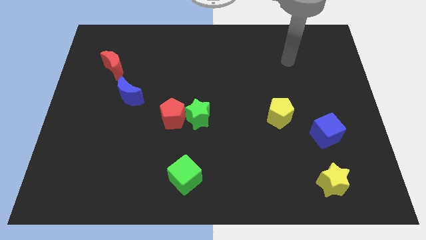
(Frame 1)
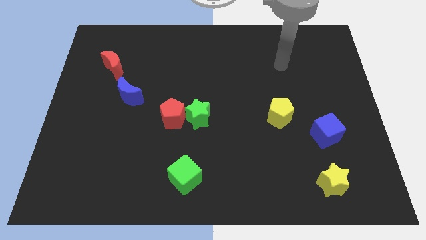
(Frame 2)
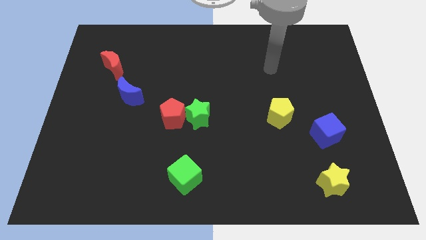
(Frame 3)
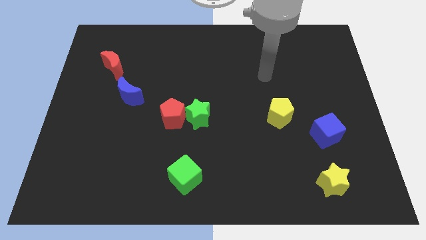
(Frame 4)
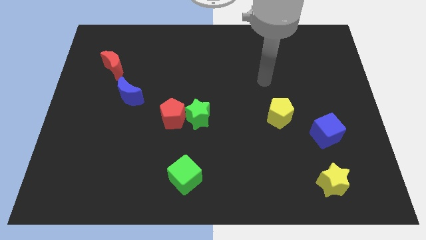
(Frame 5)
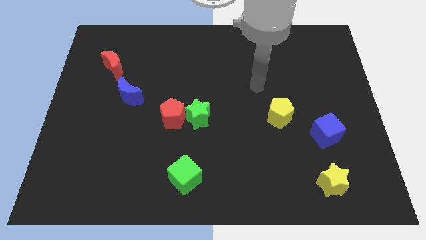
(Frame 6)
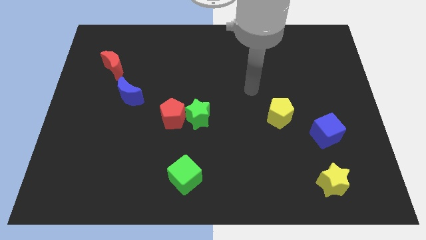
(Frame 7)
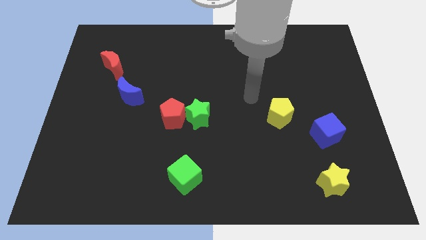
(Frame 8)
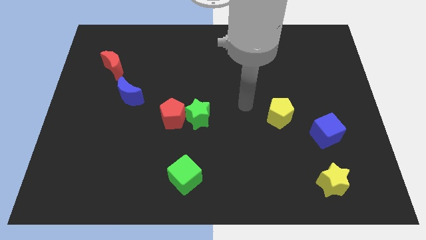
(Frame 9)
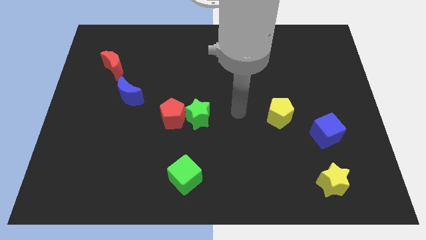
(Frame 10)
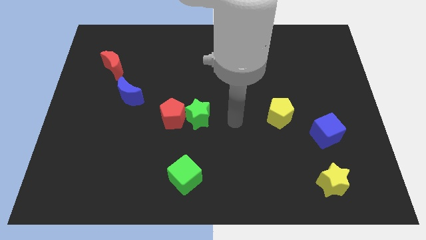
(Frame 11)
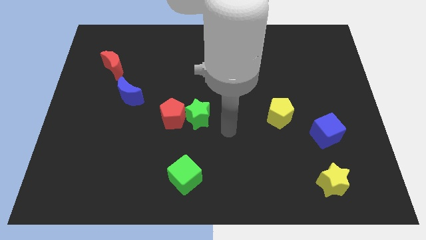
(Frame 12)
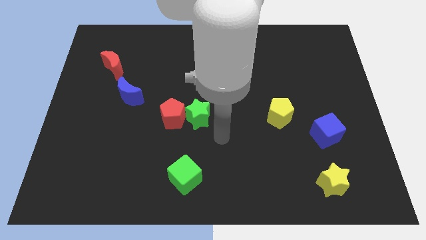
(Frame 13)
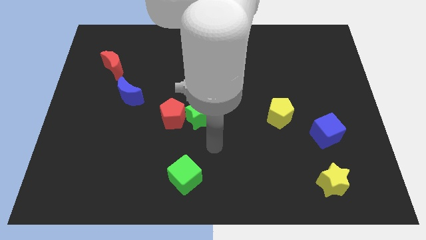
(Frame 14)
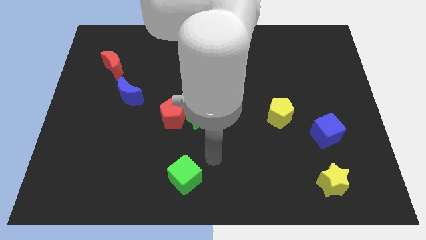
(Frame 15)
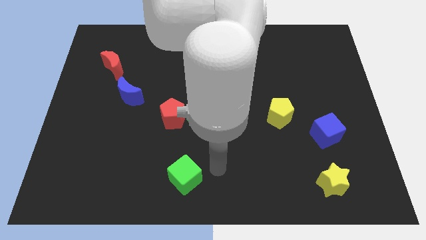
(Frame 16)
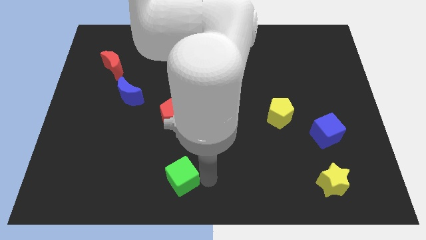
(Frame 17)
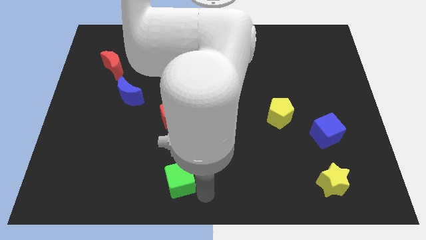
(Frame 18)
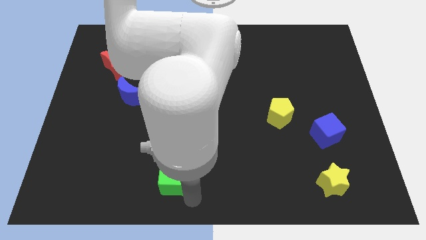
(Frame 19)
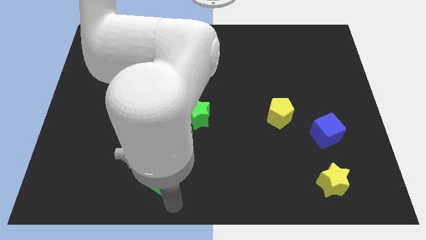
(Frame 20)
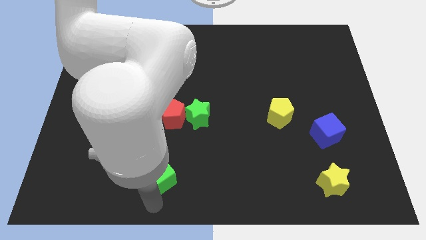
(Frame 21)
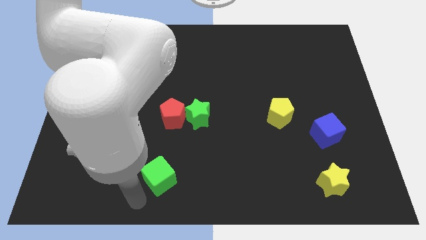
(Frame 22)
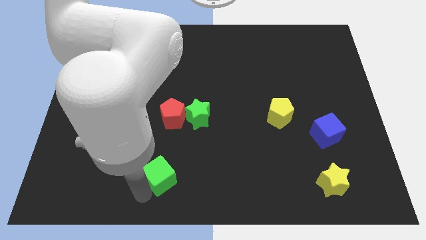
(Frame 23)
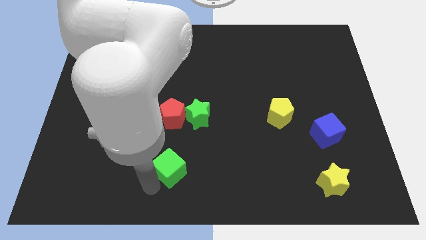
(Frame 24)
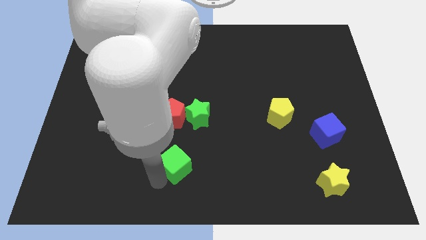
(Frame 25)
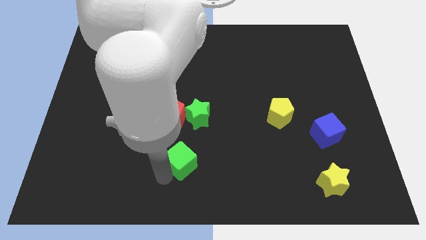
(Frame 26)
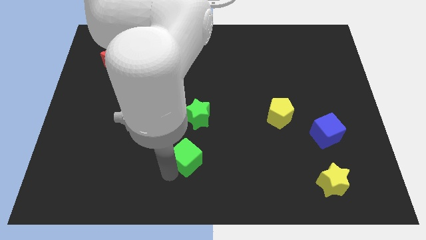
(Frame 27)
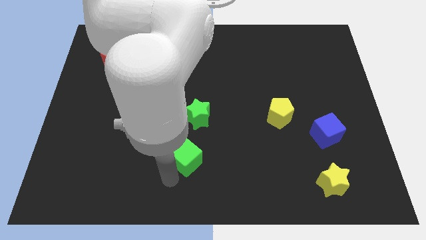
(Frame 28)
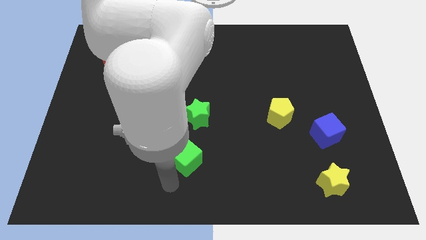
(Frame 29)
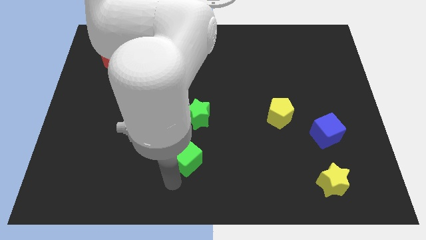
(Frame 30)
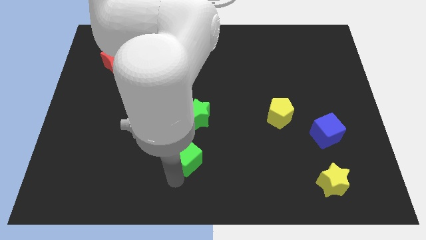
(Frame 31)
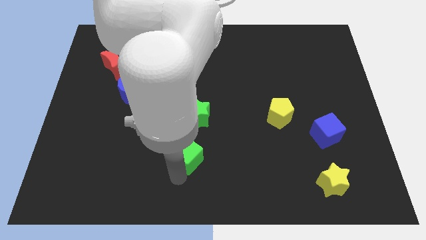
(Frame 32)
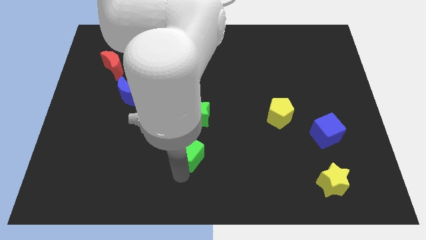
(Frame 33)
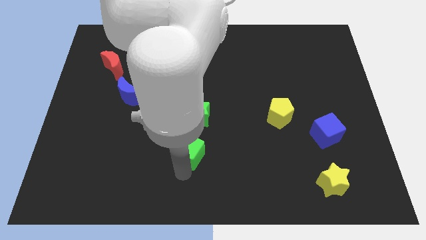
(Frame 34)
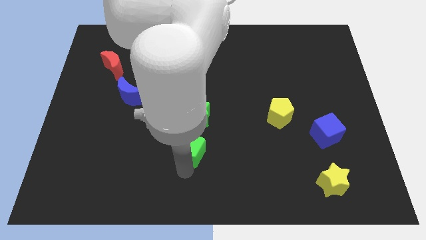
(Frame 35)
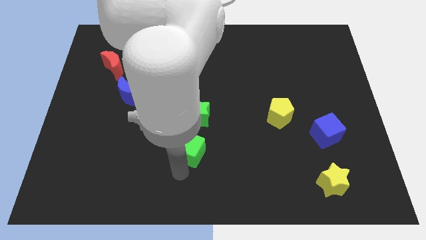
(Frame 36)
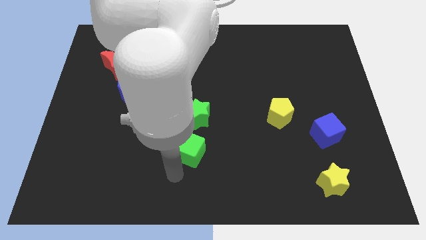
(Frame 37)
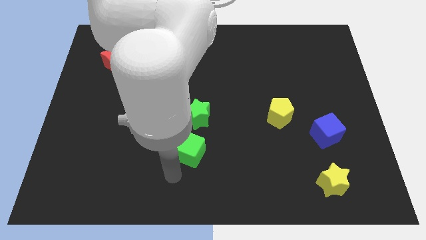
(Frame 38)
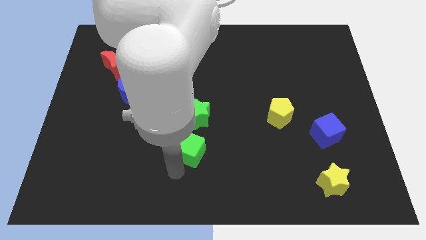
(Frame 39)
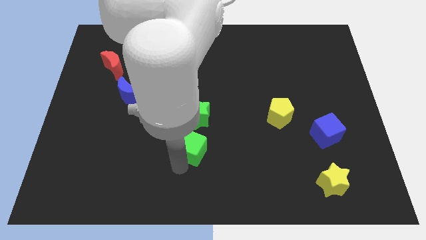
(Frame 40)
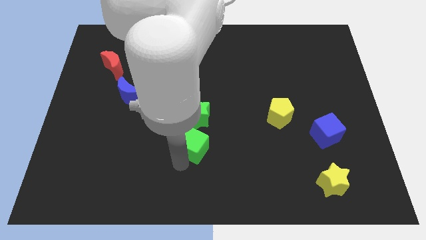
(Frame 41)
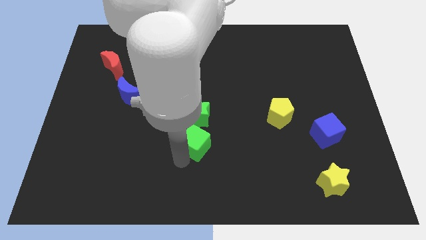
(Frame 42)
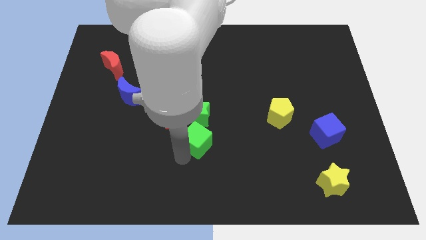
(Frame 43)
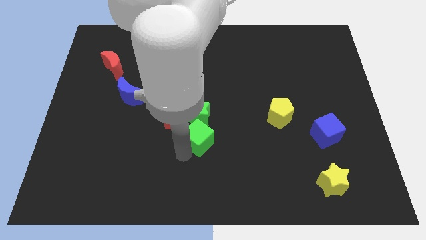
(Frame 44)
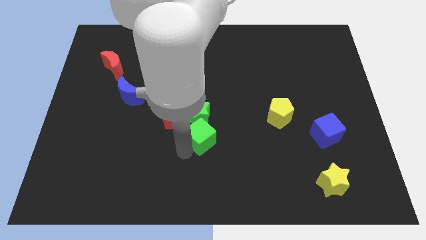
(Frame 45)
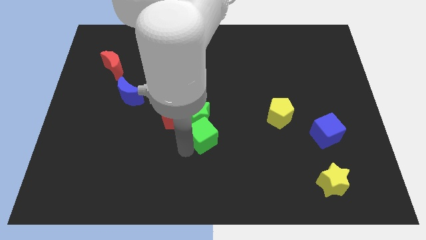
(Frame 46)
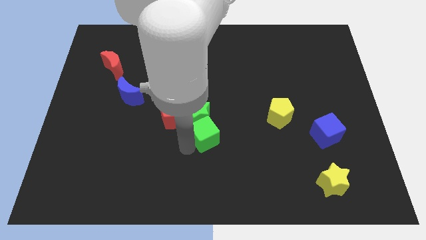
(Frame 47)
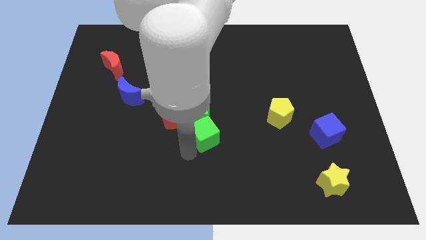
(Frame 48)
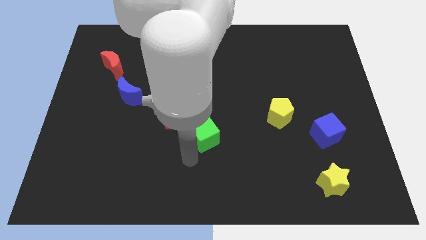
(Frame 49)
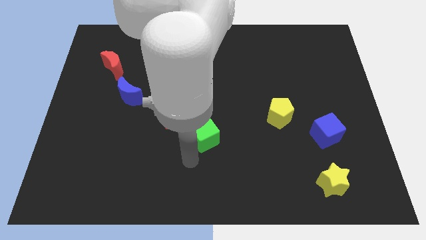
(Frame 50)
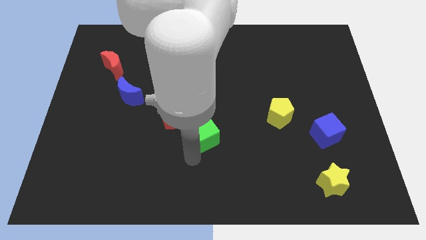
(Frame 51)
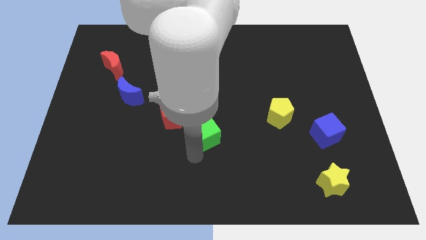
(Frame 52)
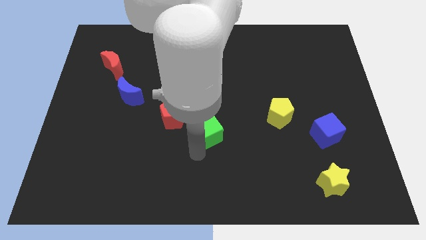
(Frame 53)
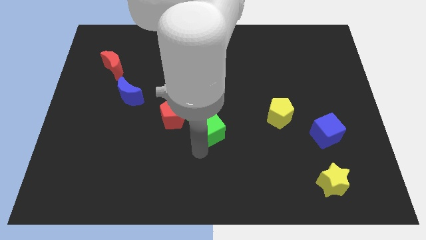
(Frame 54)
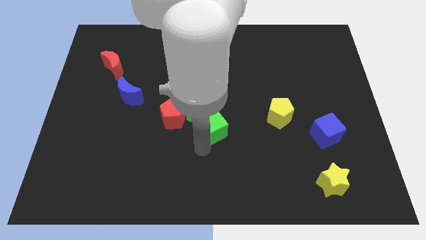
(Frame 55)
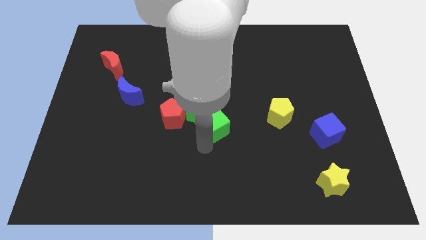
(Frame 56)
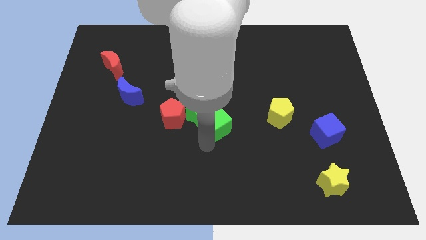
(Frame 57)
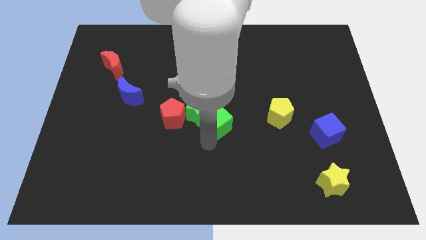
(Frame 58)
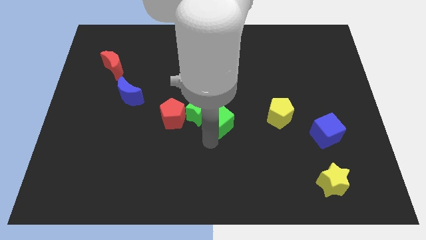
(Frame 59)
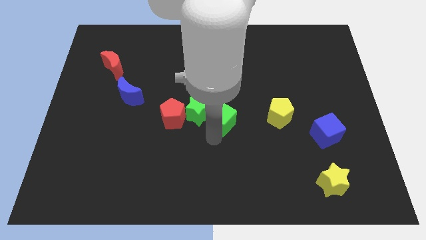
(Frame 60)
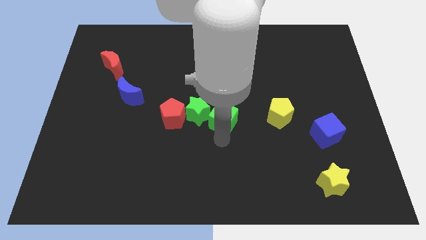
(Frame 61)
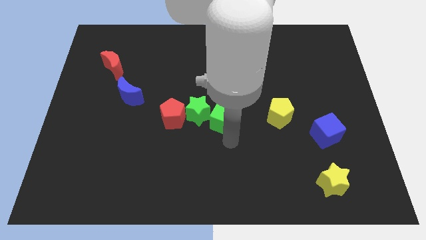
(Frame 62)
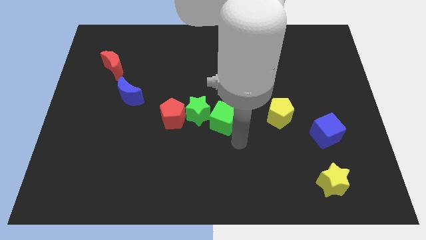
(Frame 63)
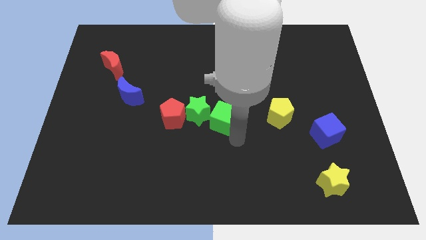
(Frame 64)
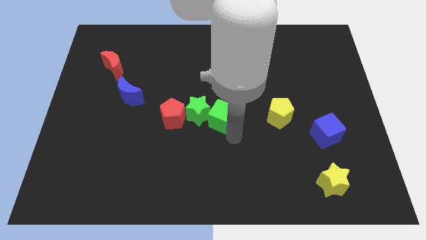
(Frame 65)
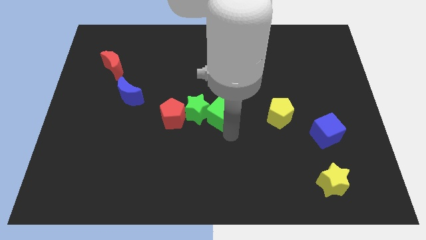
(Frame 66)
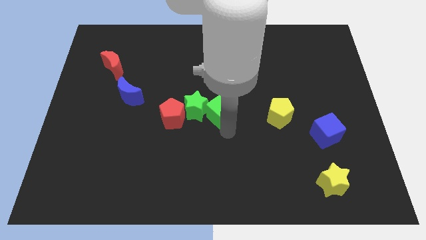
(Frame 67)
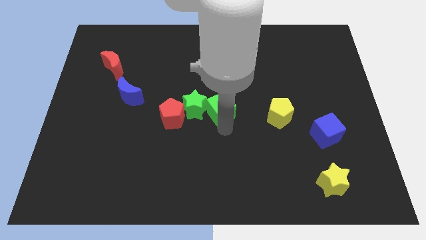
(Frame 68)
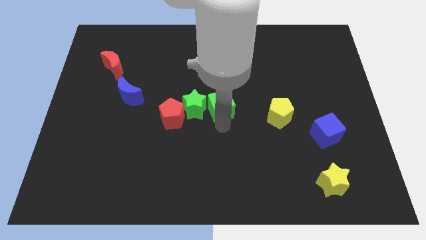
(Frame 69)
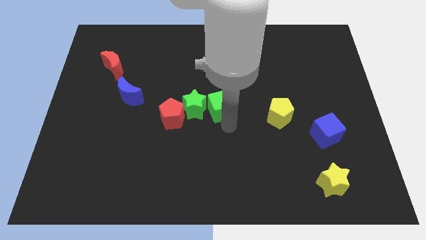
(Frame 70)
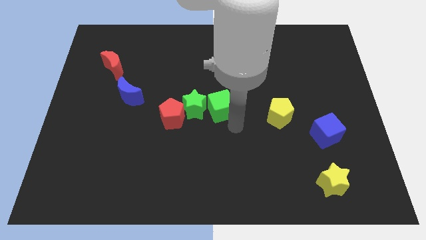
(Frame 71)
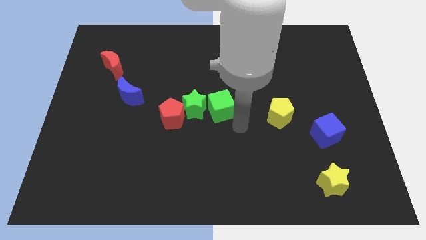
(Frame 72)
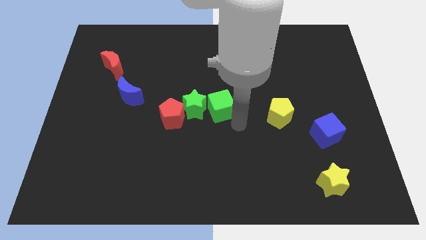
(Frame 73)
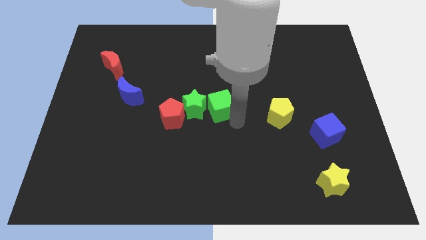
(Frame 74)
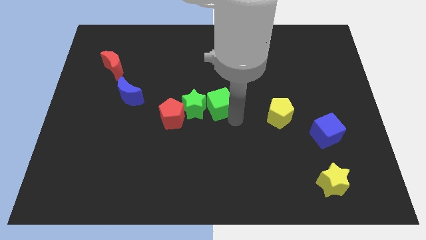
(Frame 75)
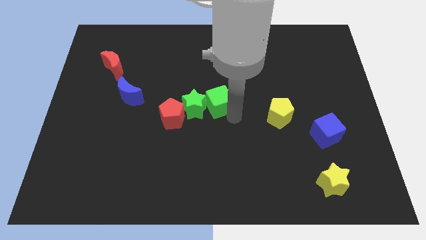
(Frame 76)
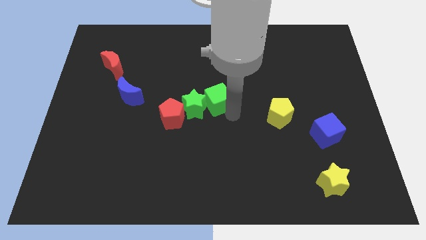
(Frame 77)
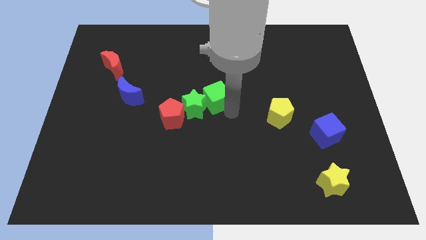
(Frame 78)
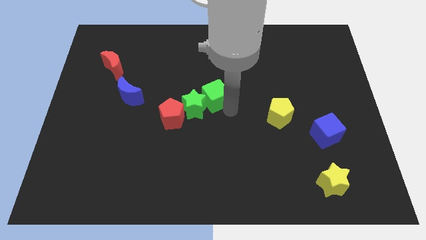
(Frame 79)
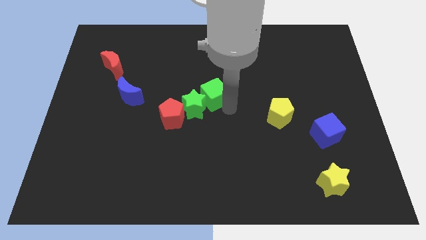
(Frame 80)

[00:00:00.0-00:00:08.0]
push the green cube up
